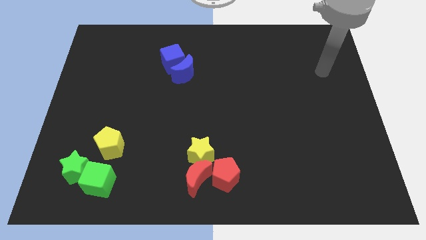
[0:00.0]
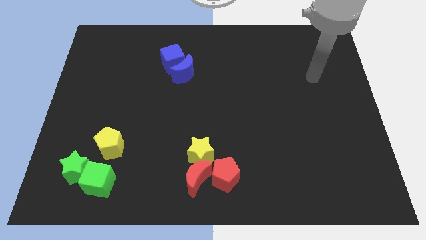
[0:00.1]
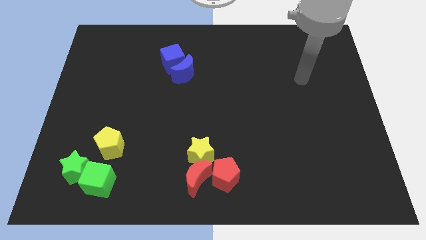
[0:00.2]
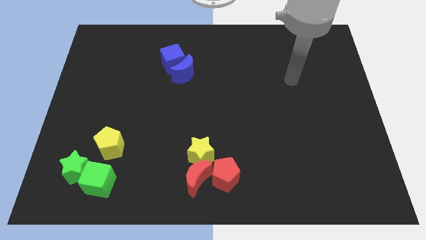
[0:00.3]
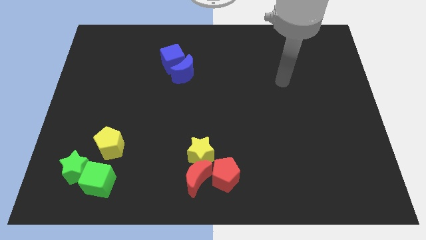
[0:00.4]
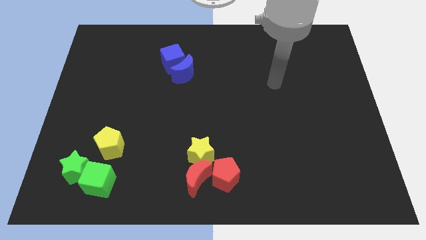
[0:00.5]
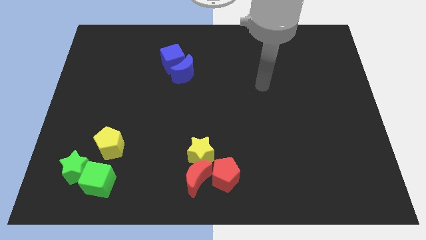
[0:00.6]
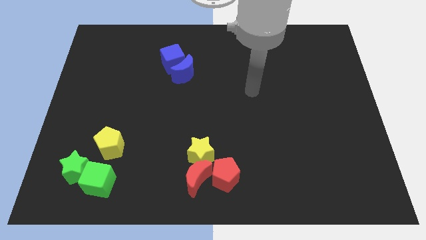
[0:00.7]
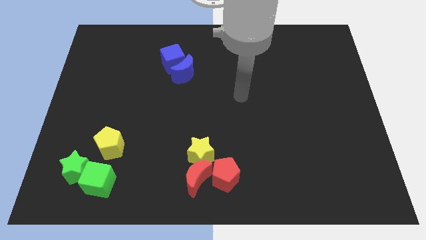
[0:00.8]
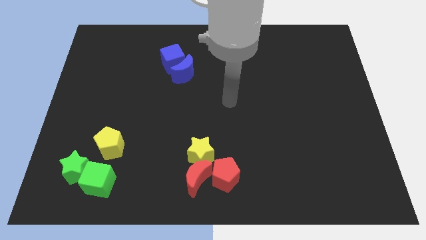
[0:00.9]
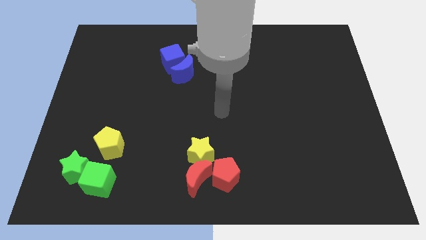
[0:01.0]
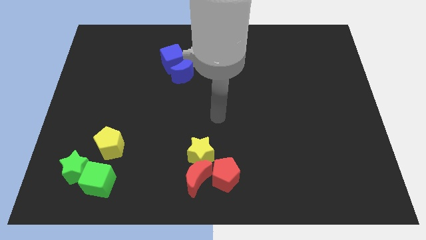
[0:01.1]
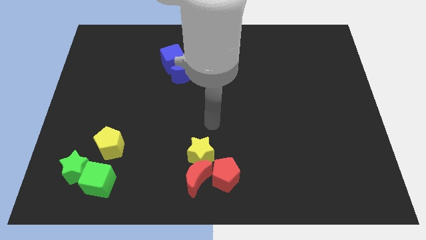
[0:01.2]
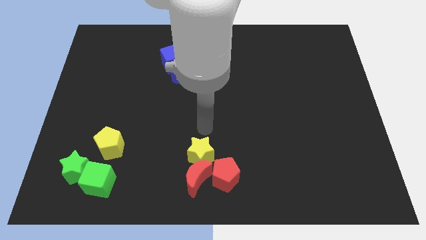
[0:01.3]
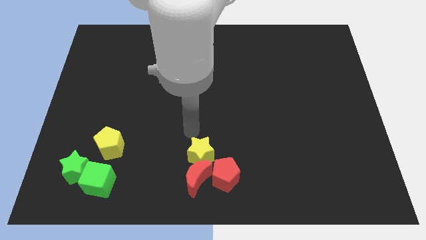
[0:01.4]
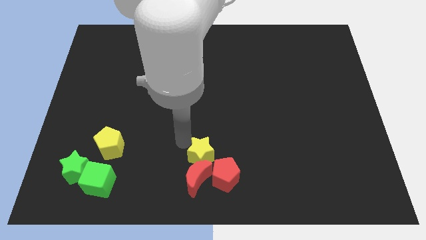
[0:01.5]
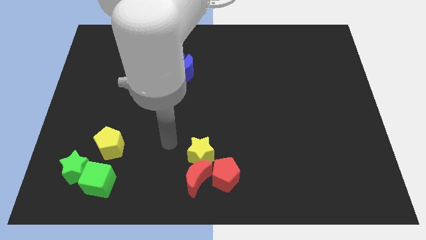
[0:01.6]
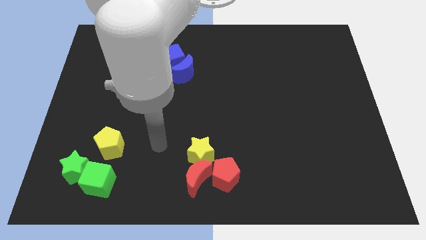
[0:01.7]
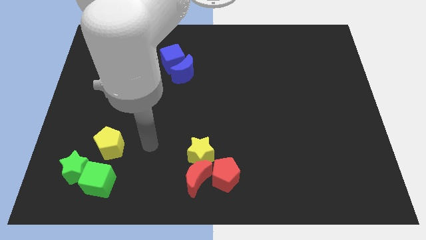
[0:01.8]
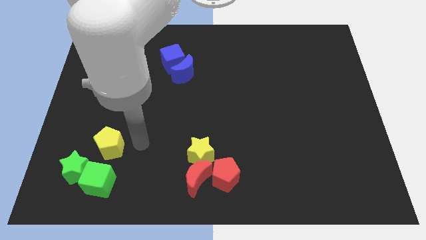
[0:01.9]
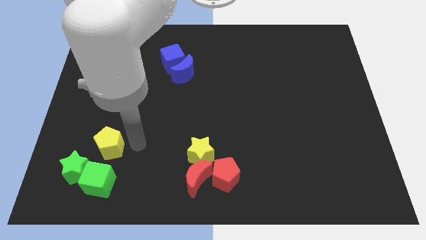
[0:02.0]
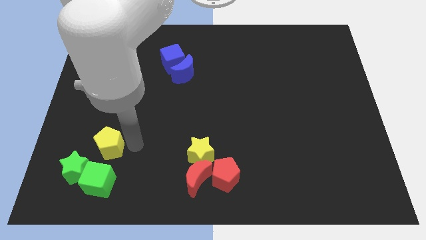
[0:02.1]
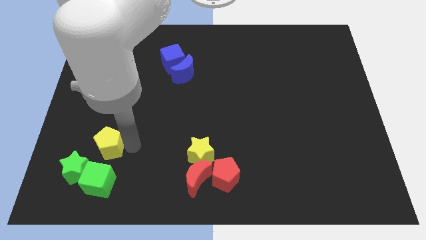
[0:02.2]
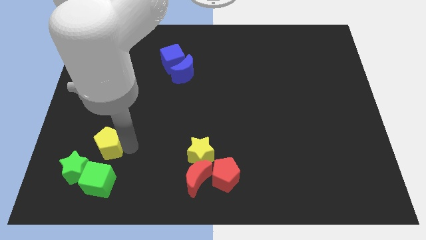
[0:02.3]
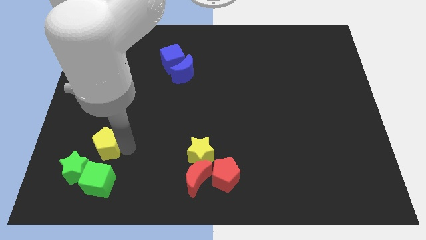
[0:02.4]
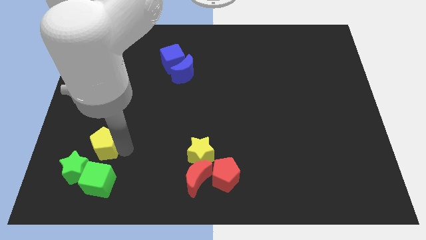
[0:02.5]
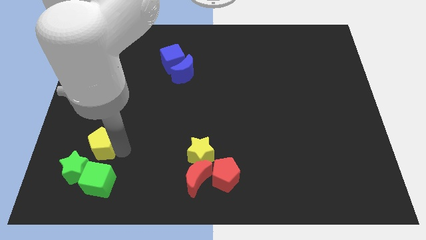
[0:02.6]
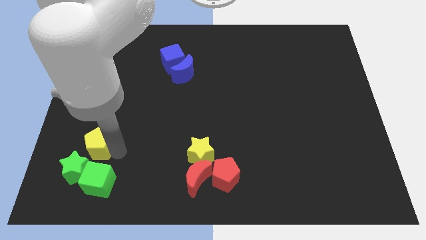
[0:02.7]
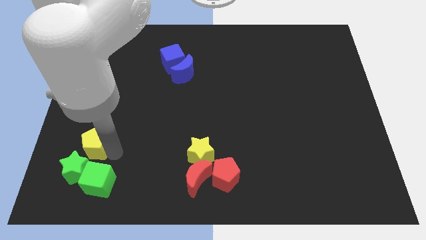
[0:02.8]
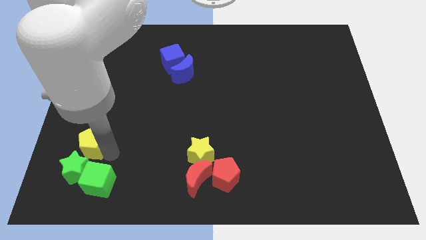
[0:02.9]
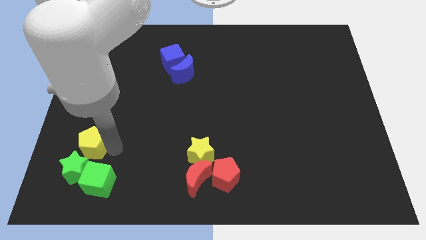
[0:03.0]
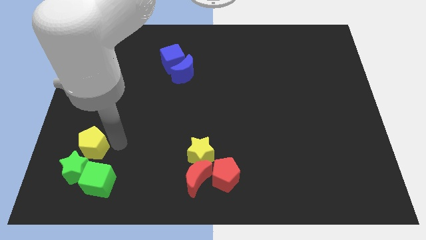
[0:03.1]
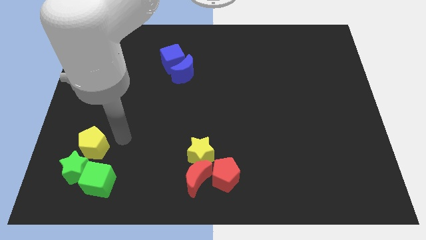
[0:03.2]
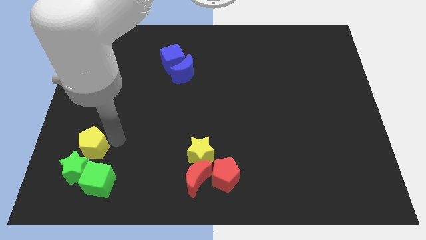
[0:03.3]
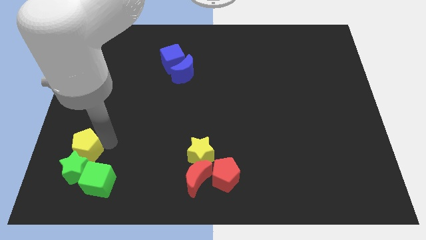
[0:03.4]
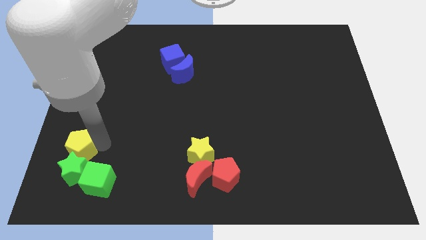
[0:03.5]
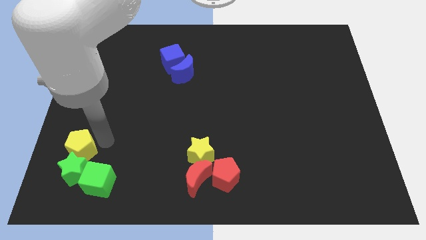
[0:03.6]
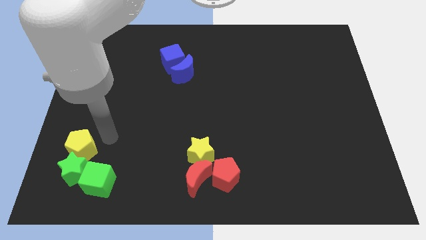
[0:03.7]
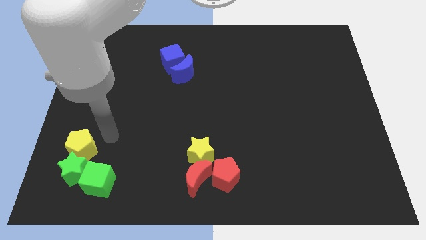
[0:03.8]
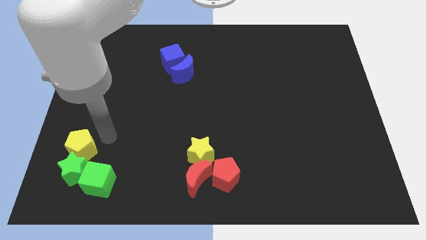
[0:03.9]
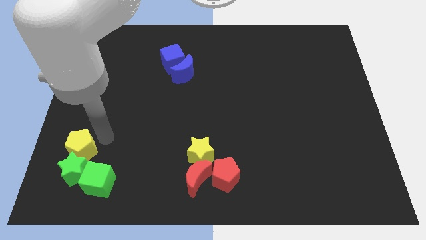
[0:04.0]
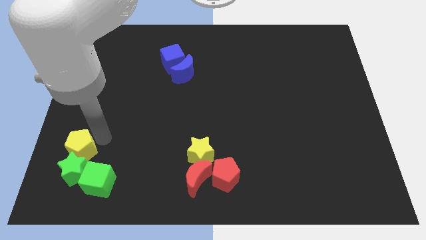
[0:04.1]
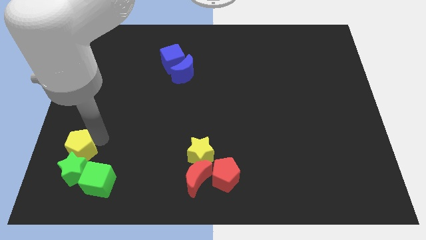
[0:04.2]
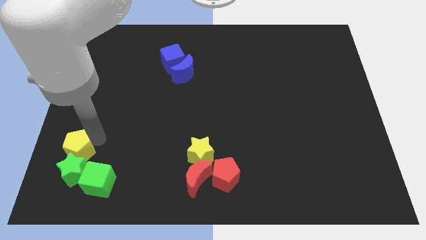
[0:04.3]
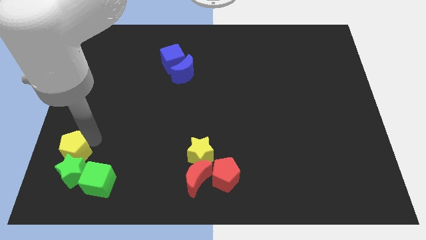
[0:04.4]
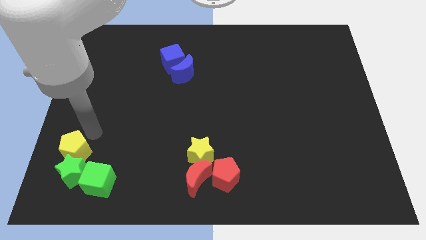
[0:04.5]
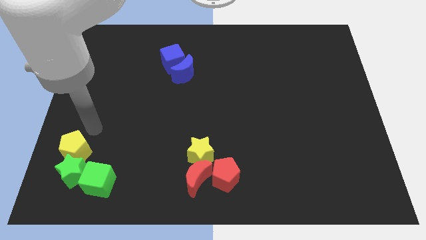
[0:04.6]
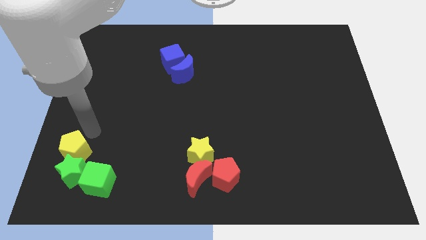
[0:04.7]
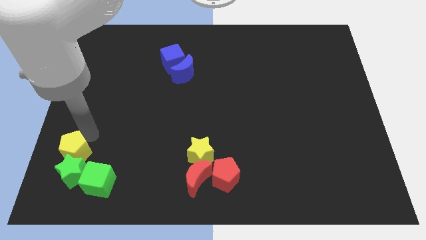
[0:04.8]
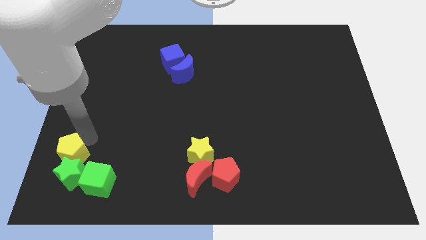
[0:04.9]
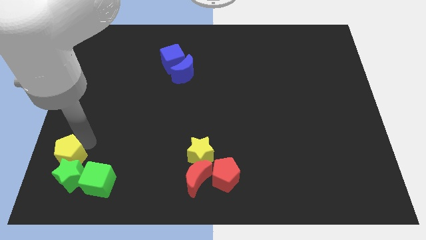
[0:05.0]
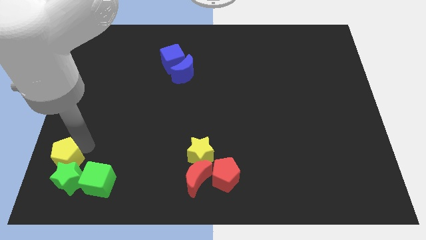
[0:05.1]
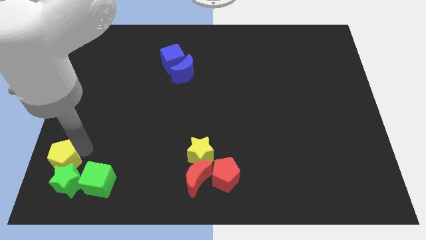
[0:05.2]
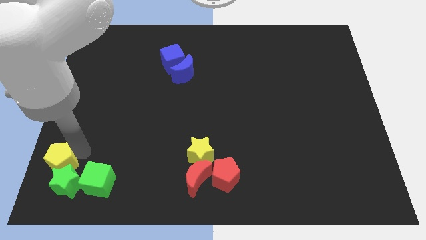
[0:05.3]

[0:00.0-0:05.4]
push the yellow pentagon to the lower left corner
